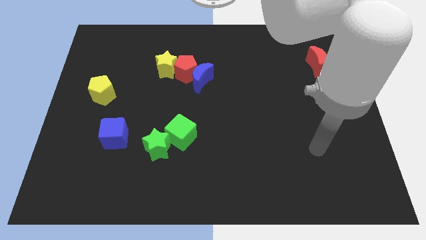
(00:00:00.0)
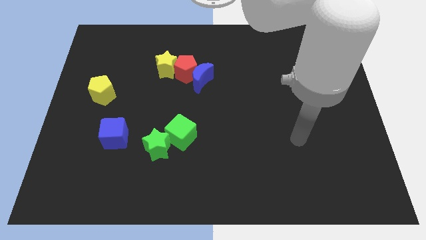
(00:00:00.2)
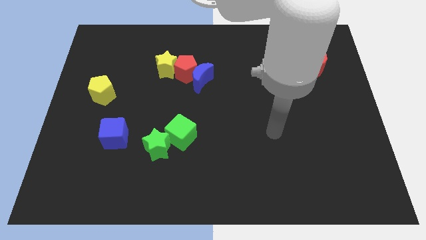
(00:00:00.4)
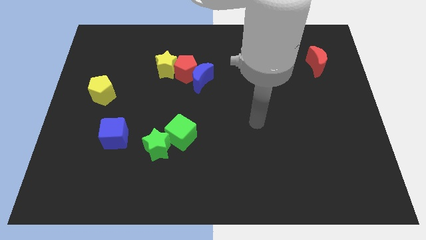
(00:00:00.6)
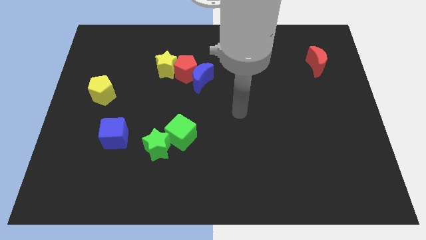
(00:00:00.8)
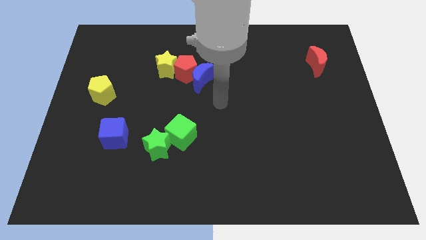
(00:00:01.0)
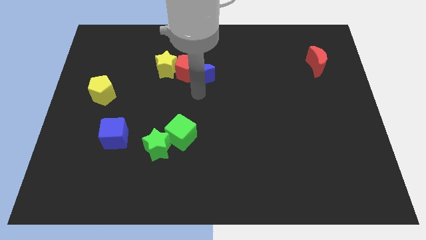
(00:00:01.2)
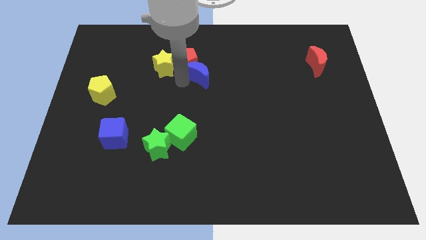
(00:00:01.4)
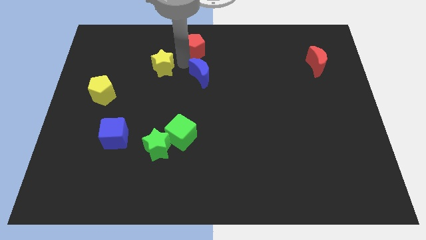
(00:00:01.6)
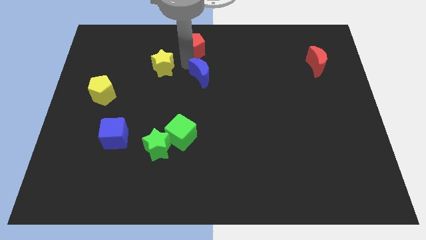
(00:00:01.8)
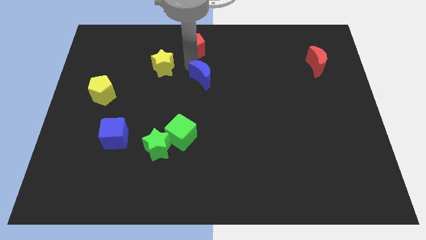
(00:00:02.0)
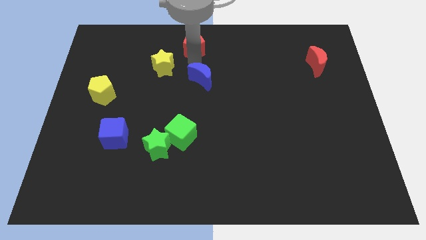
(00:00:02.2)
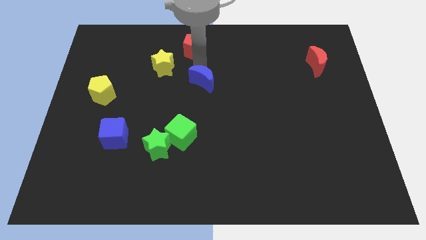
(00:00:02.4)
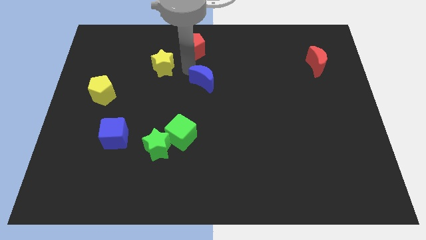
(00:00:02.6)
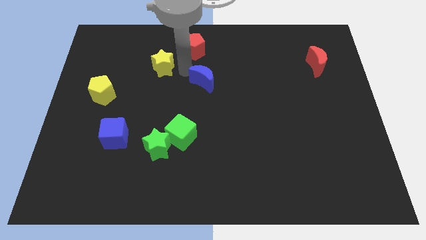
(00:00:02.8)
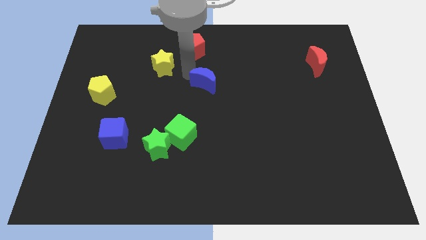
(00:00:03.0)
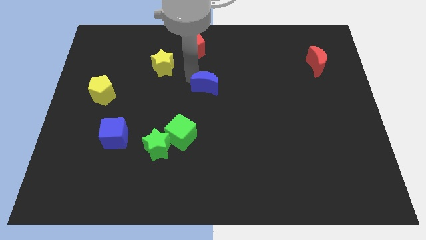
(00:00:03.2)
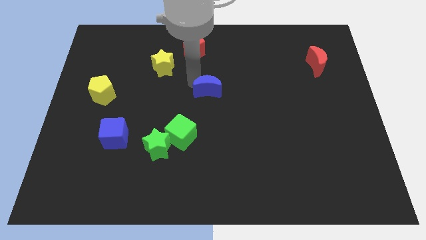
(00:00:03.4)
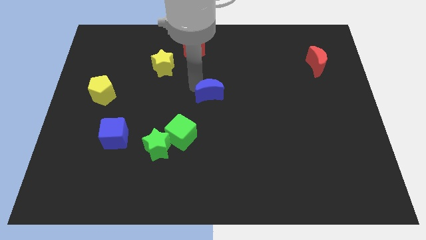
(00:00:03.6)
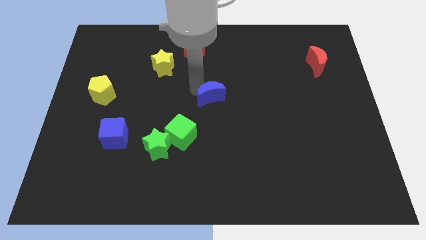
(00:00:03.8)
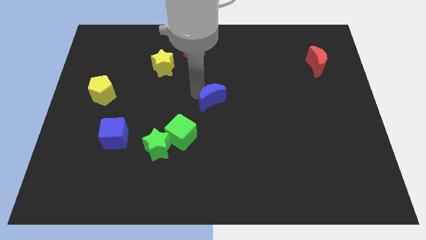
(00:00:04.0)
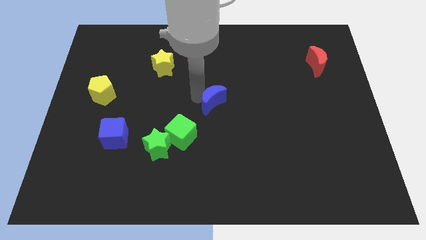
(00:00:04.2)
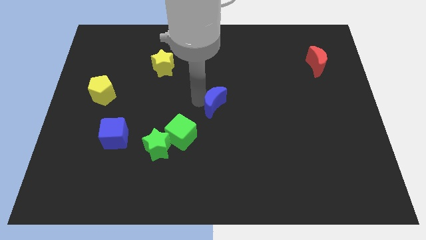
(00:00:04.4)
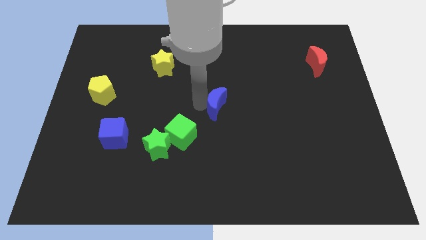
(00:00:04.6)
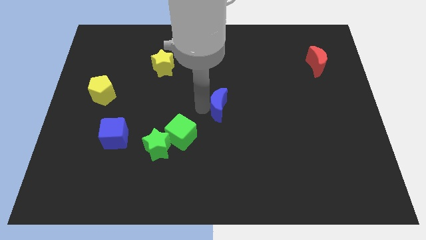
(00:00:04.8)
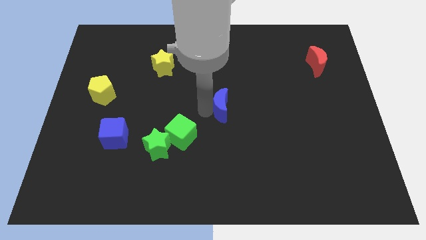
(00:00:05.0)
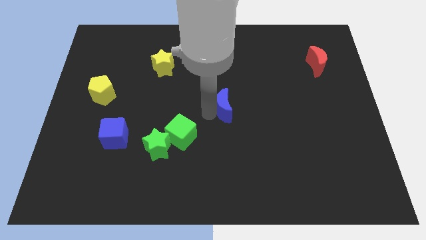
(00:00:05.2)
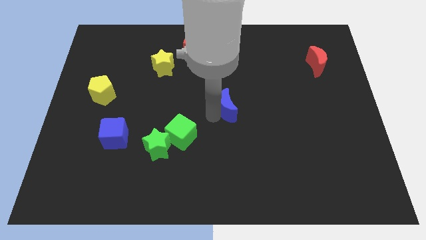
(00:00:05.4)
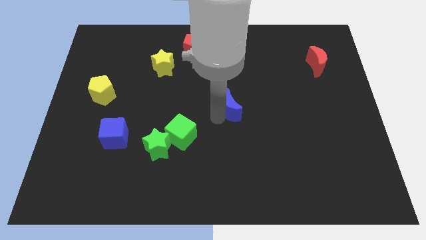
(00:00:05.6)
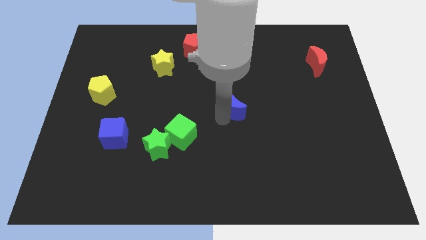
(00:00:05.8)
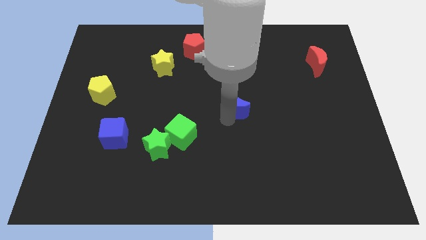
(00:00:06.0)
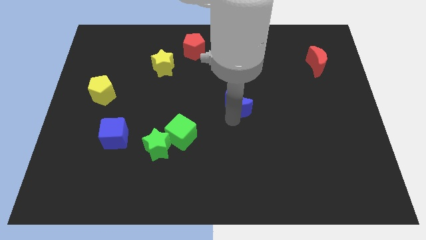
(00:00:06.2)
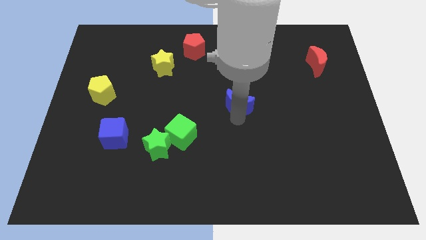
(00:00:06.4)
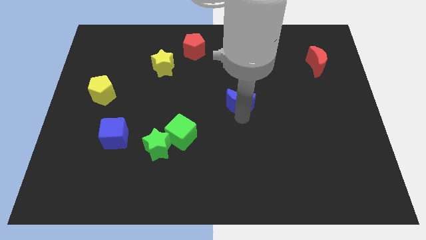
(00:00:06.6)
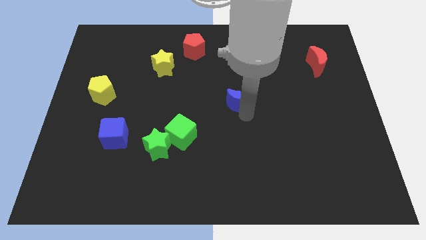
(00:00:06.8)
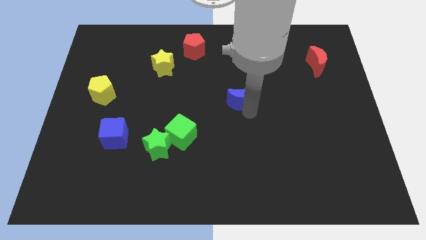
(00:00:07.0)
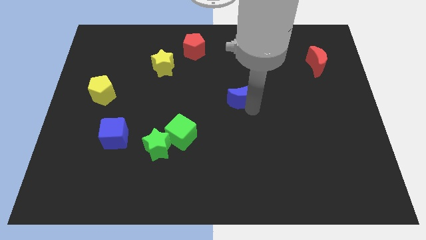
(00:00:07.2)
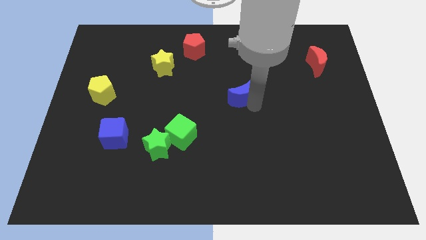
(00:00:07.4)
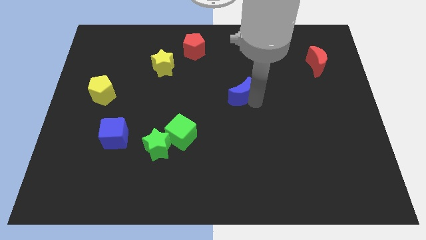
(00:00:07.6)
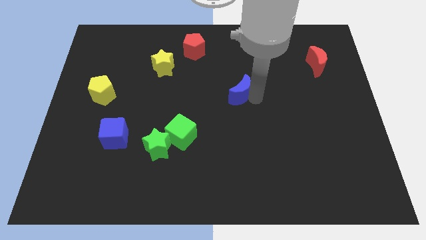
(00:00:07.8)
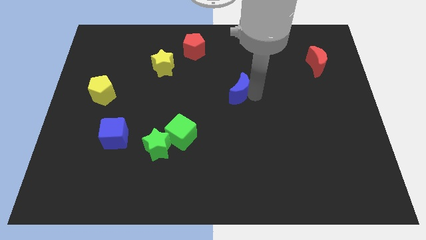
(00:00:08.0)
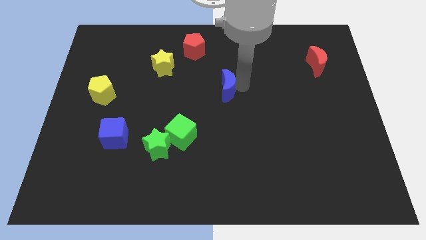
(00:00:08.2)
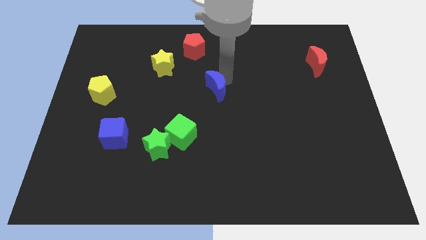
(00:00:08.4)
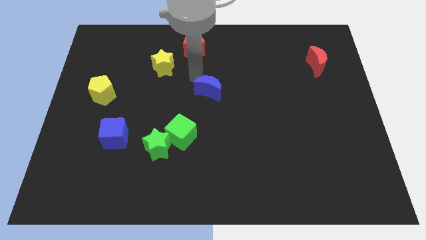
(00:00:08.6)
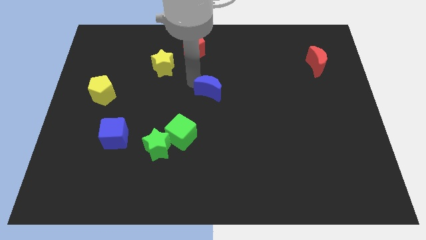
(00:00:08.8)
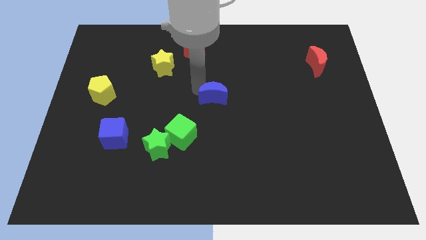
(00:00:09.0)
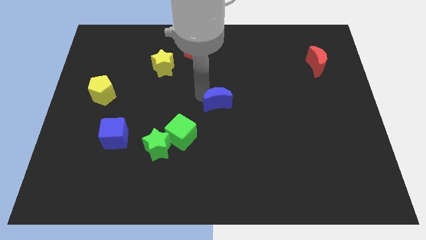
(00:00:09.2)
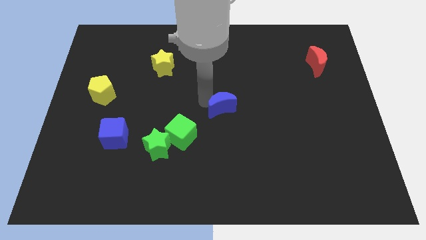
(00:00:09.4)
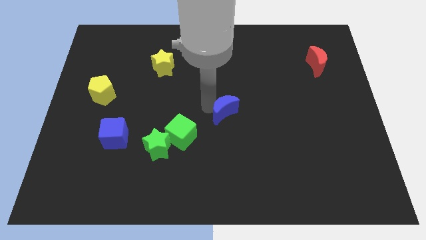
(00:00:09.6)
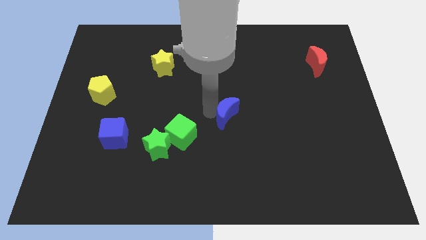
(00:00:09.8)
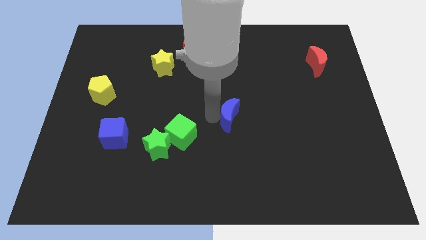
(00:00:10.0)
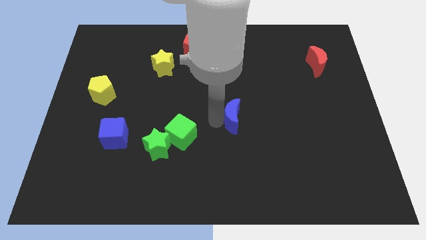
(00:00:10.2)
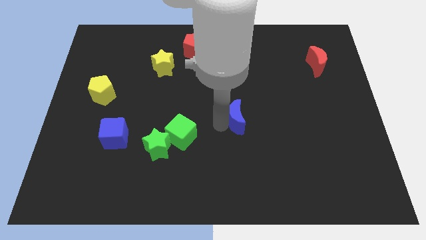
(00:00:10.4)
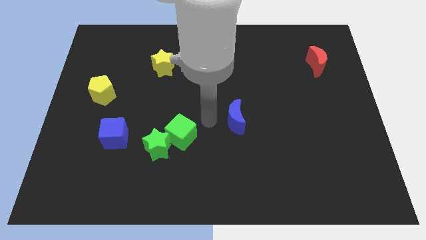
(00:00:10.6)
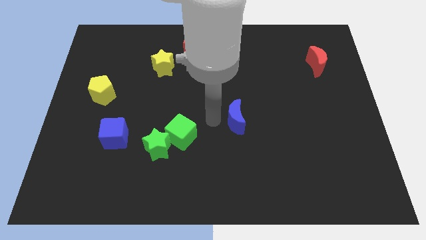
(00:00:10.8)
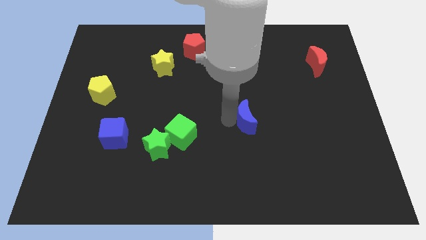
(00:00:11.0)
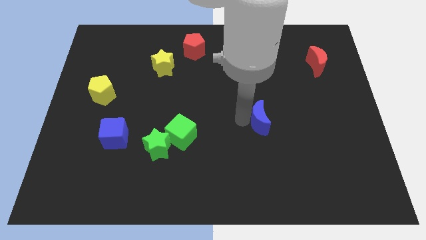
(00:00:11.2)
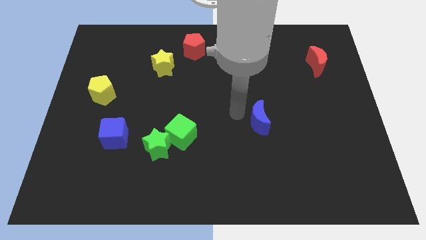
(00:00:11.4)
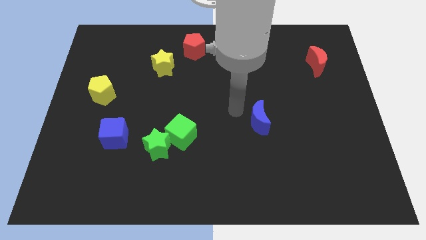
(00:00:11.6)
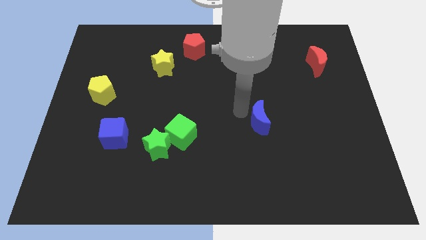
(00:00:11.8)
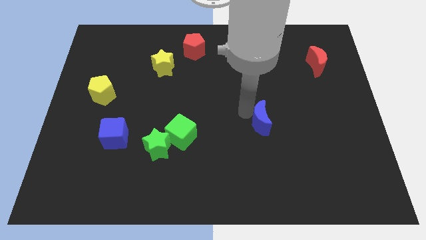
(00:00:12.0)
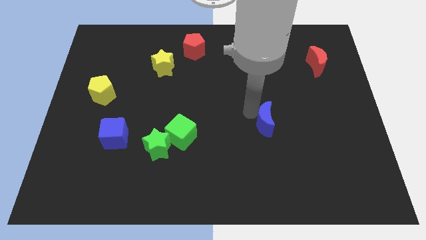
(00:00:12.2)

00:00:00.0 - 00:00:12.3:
slide the blue moon diagonally downwards and right

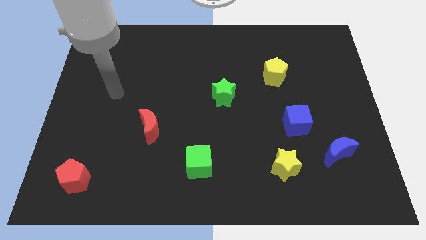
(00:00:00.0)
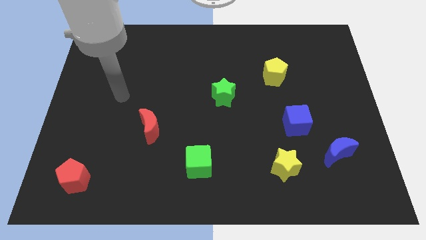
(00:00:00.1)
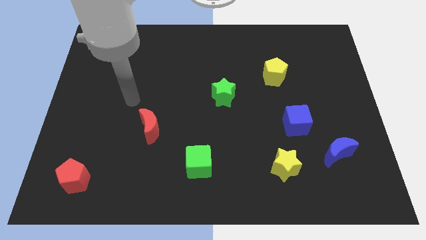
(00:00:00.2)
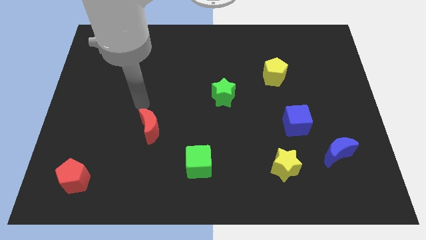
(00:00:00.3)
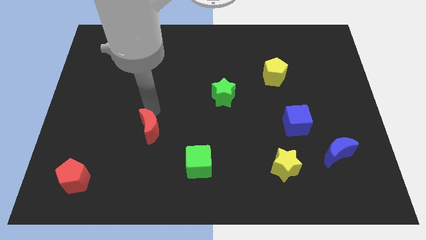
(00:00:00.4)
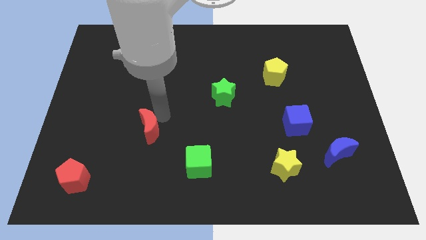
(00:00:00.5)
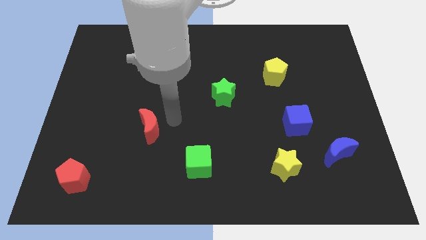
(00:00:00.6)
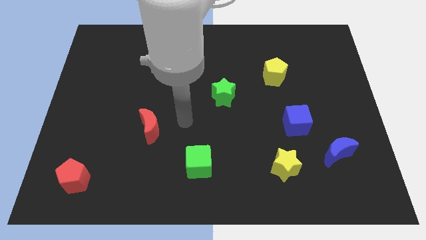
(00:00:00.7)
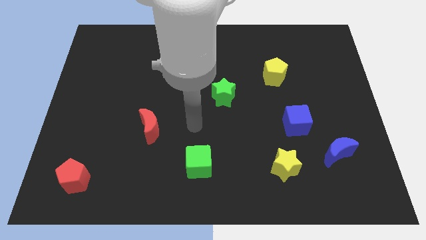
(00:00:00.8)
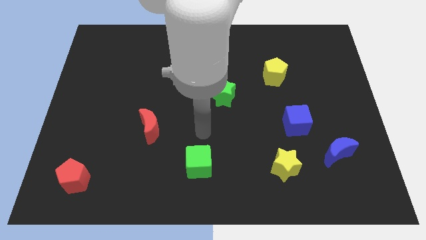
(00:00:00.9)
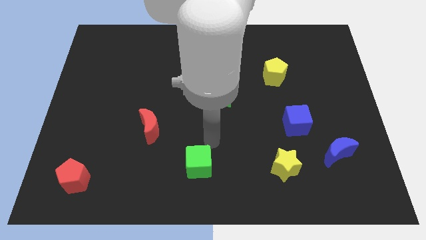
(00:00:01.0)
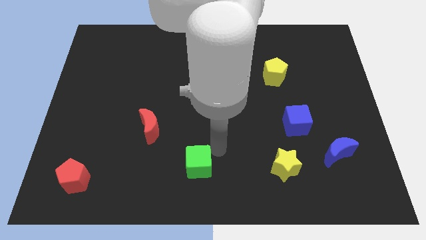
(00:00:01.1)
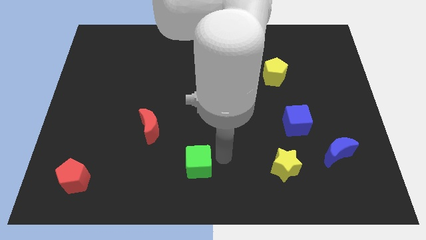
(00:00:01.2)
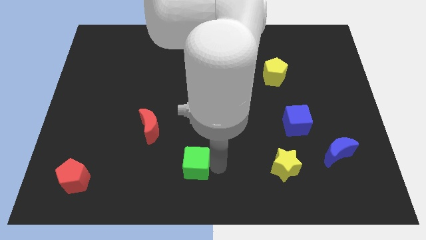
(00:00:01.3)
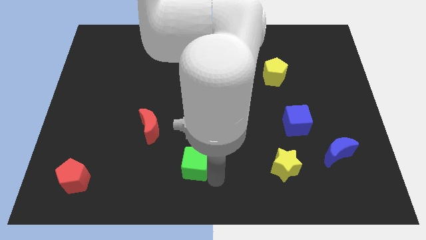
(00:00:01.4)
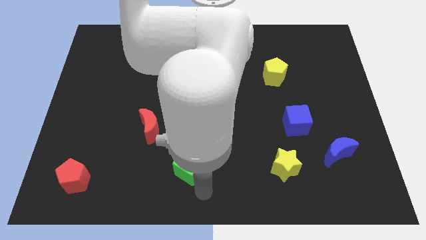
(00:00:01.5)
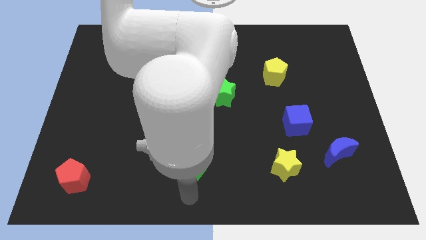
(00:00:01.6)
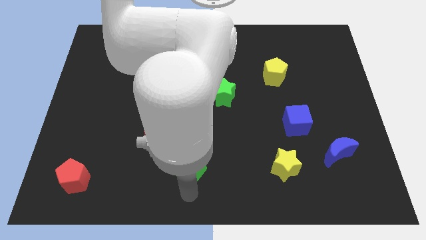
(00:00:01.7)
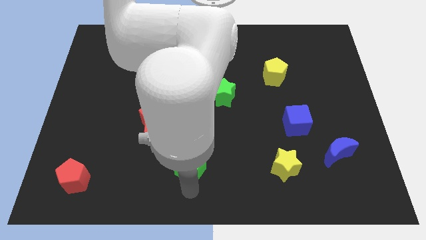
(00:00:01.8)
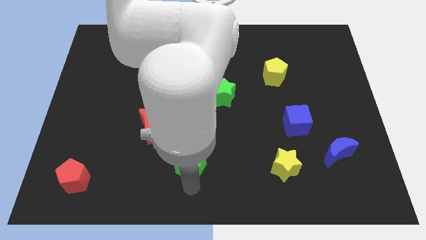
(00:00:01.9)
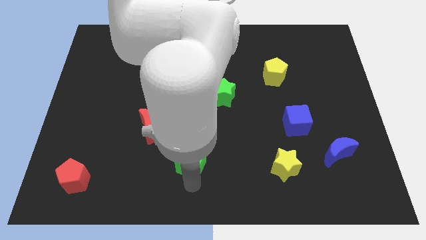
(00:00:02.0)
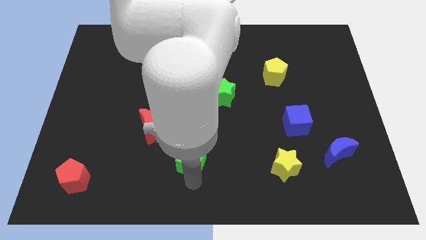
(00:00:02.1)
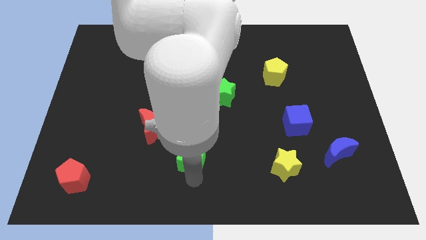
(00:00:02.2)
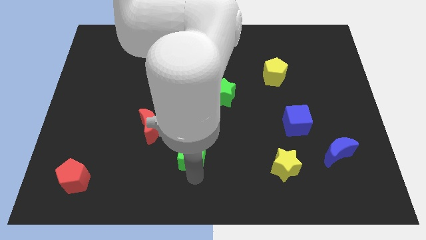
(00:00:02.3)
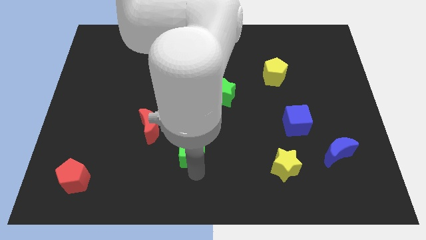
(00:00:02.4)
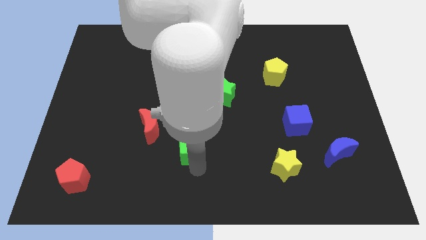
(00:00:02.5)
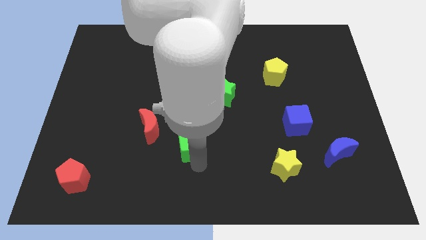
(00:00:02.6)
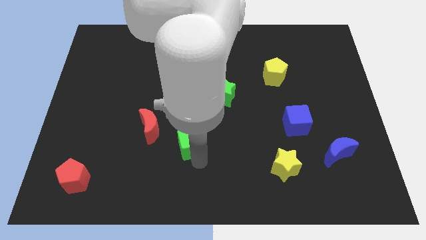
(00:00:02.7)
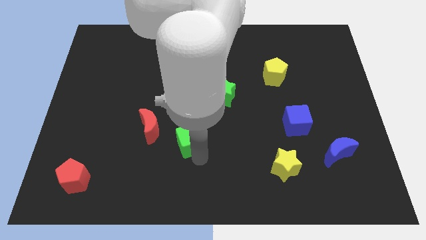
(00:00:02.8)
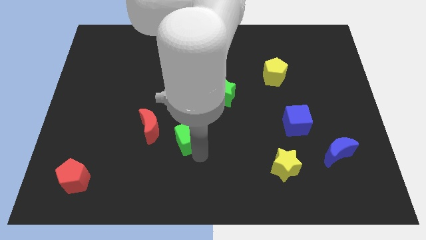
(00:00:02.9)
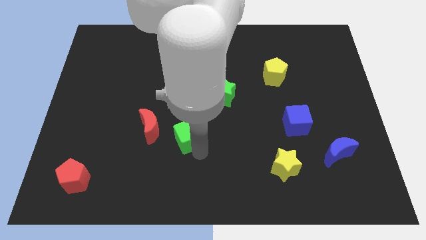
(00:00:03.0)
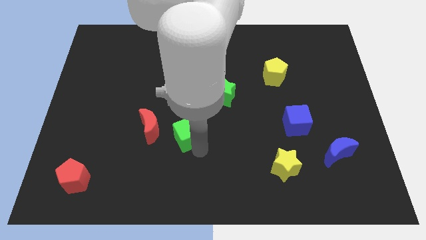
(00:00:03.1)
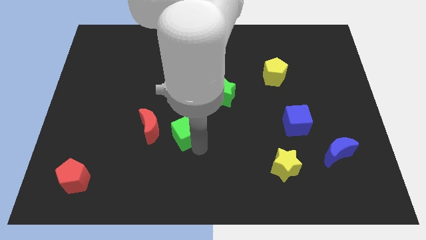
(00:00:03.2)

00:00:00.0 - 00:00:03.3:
push the green cube up and left diagonally somewhat
